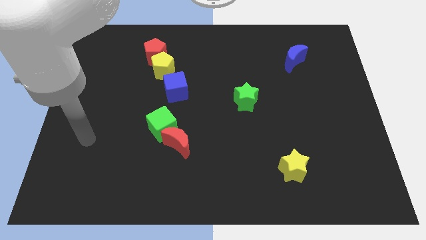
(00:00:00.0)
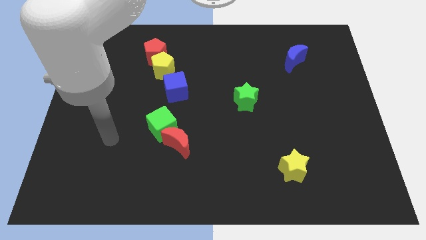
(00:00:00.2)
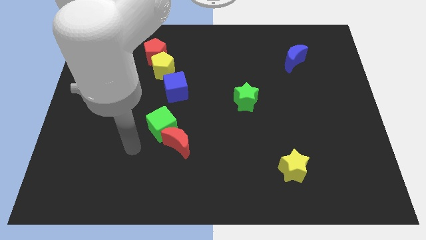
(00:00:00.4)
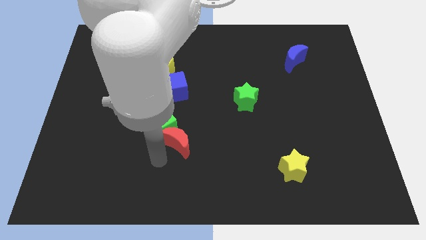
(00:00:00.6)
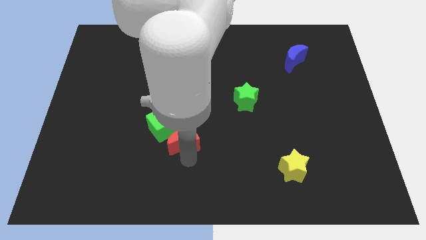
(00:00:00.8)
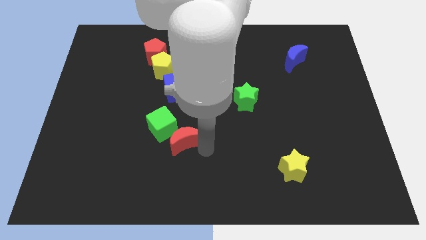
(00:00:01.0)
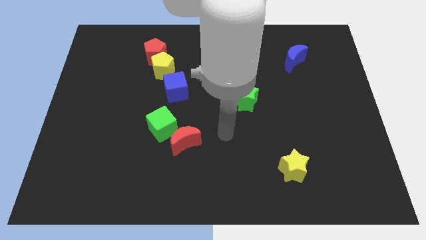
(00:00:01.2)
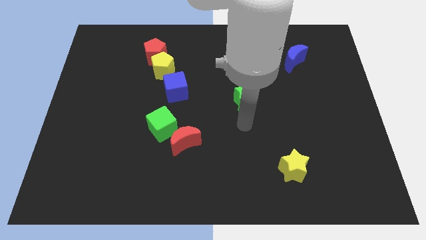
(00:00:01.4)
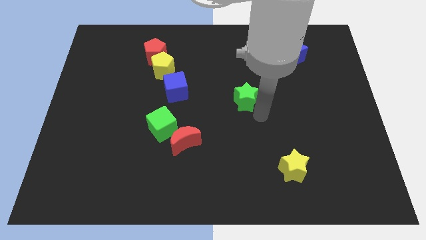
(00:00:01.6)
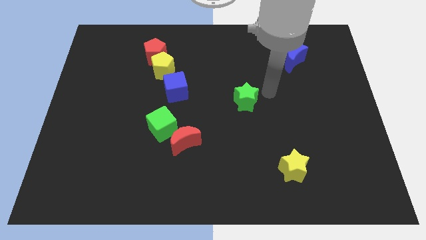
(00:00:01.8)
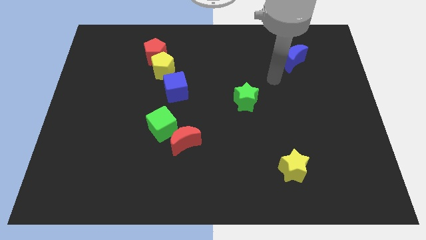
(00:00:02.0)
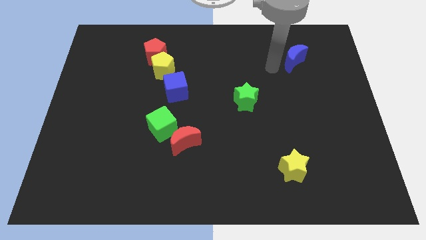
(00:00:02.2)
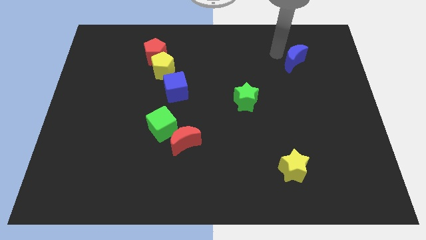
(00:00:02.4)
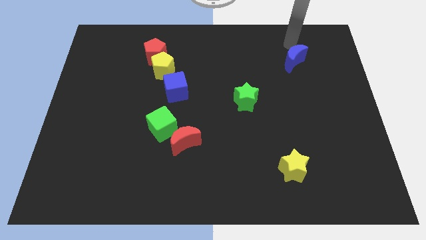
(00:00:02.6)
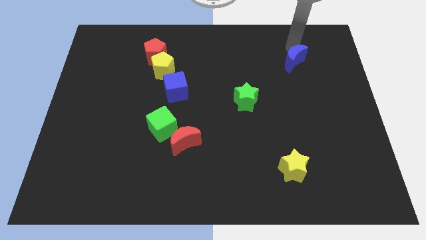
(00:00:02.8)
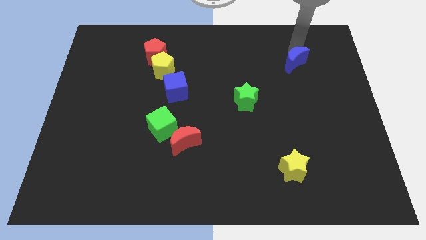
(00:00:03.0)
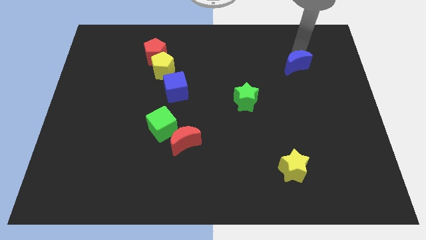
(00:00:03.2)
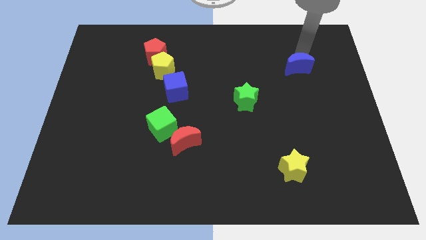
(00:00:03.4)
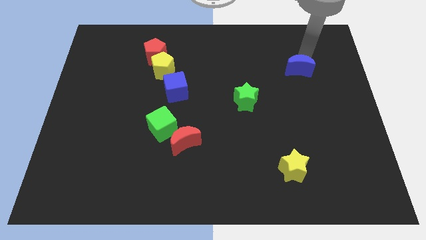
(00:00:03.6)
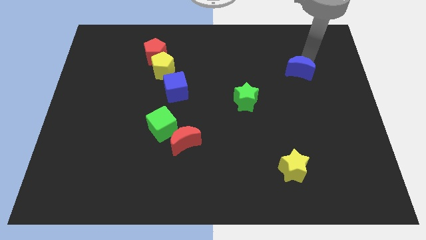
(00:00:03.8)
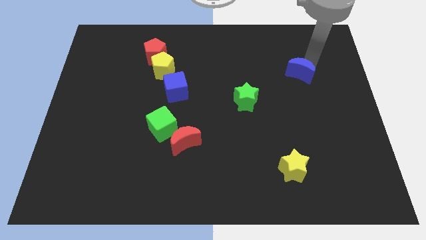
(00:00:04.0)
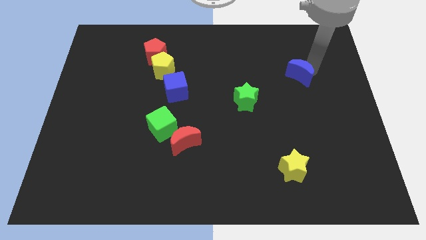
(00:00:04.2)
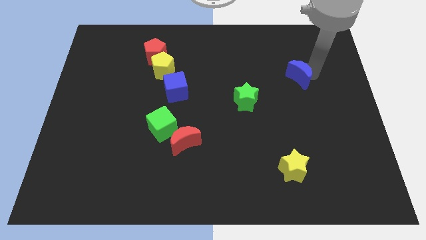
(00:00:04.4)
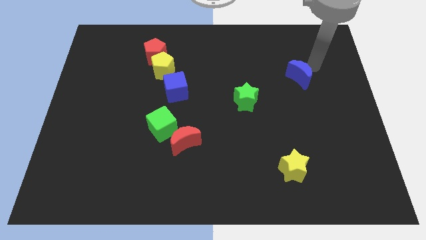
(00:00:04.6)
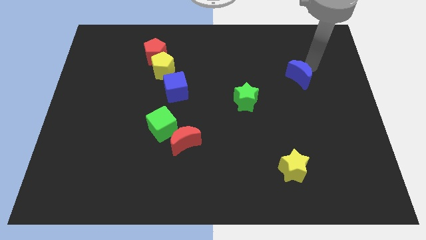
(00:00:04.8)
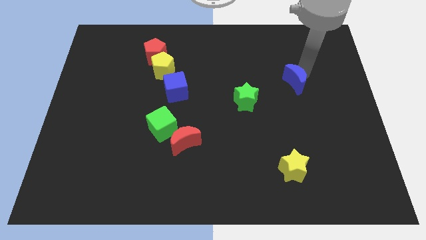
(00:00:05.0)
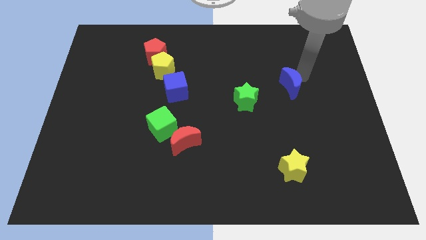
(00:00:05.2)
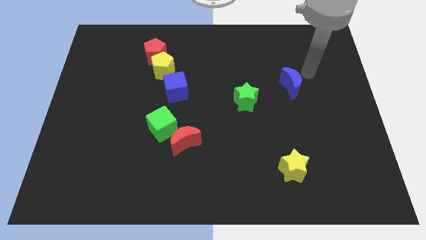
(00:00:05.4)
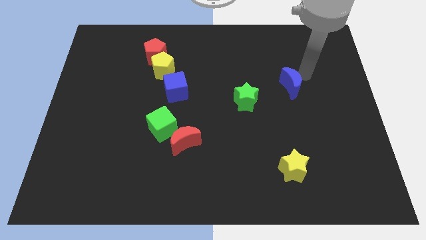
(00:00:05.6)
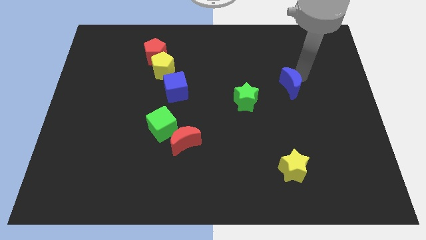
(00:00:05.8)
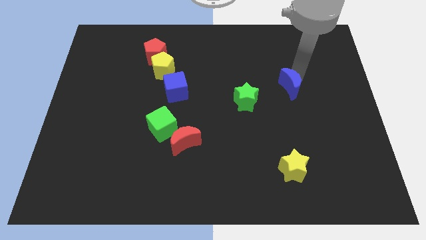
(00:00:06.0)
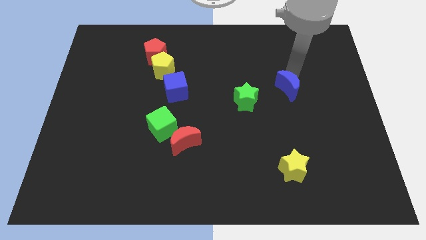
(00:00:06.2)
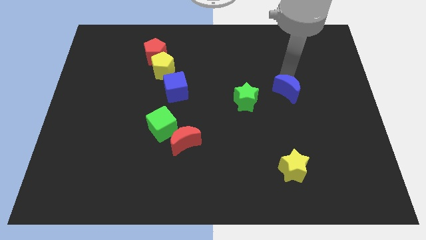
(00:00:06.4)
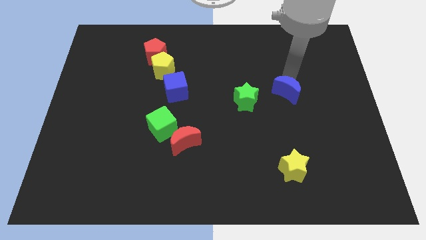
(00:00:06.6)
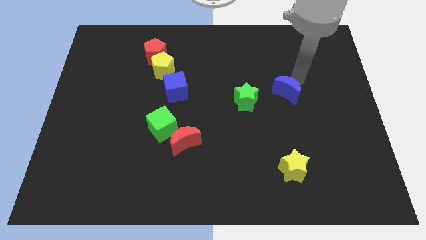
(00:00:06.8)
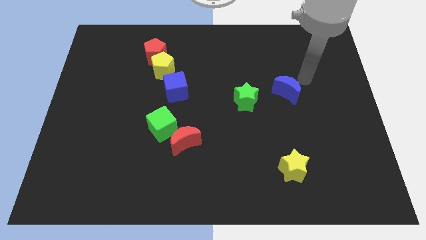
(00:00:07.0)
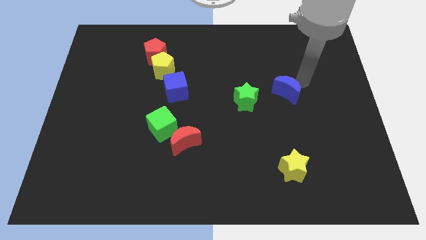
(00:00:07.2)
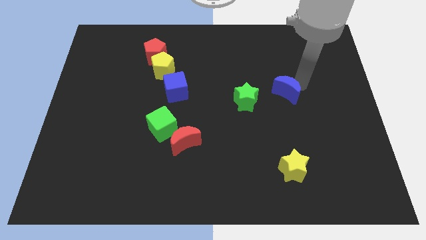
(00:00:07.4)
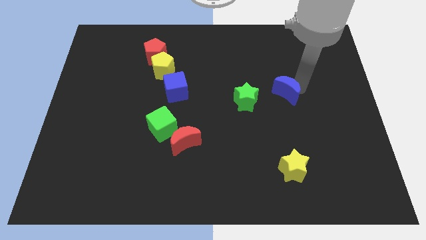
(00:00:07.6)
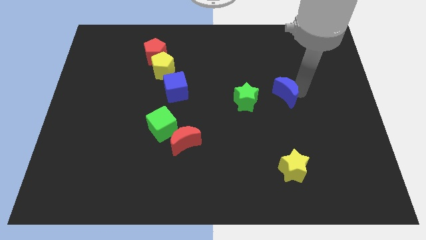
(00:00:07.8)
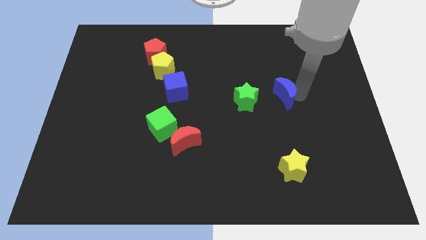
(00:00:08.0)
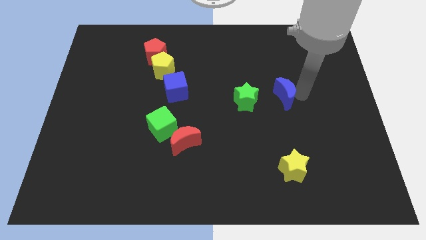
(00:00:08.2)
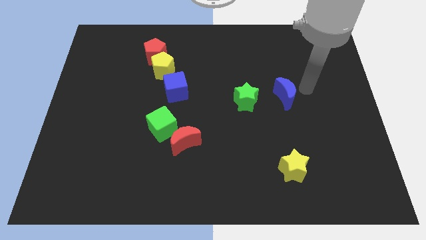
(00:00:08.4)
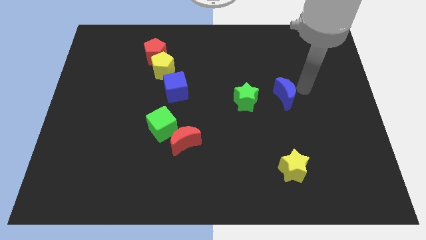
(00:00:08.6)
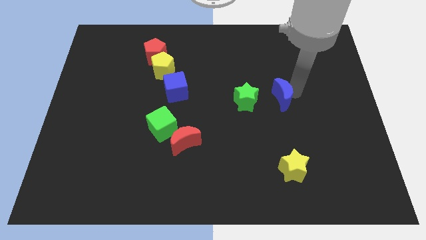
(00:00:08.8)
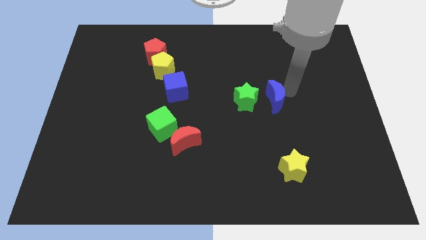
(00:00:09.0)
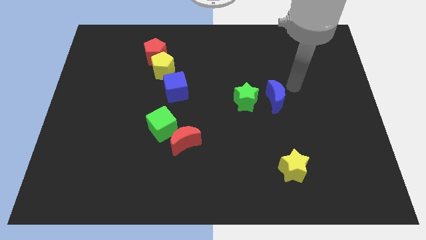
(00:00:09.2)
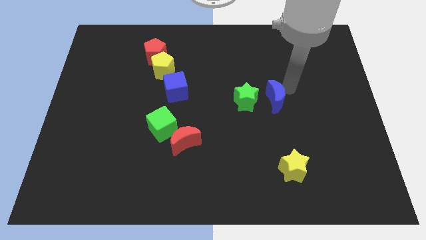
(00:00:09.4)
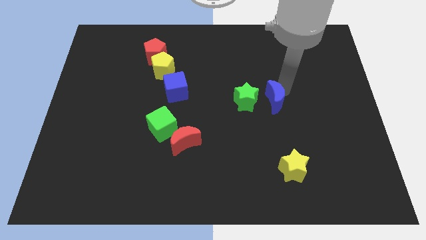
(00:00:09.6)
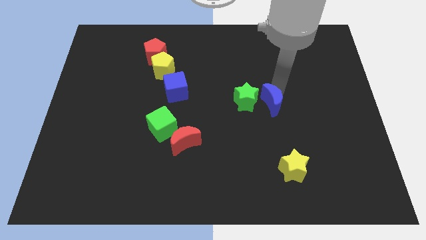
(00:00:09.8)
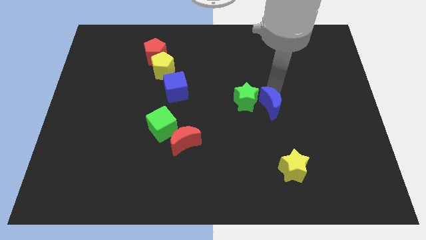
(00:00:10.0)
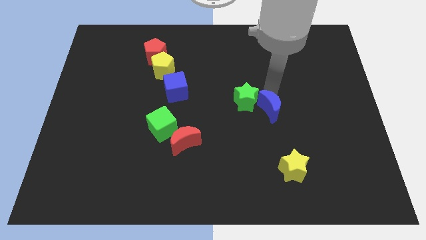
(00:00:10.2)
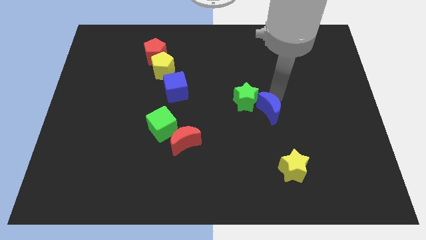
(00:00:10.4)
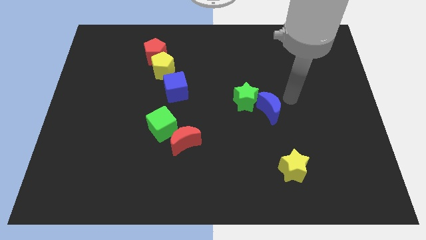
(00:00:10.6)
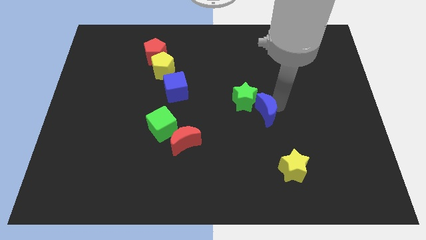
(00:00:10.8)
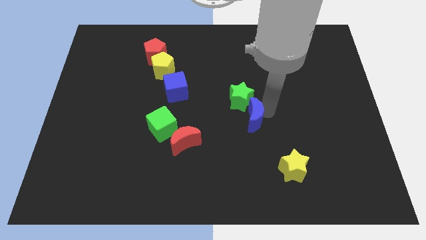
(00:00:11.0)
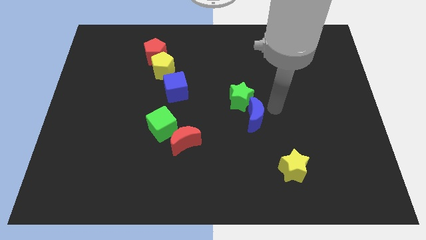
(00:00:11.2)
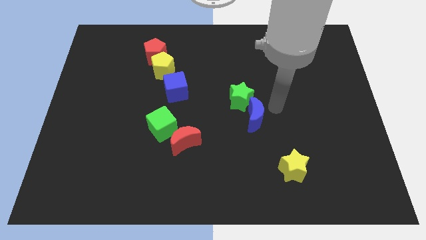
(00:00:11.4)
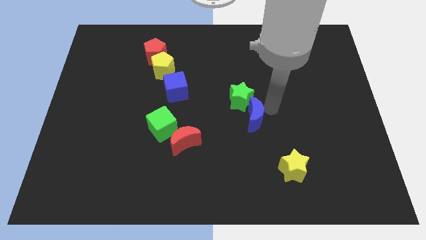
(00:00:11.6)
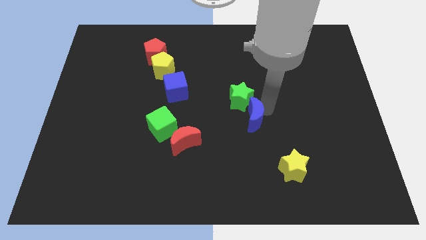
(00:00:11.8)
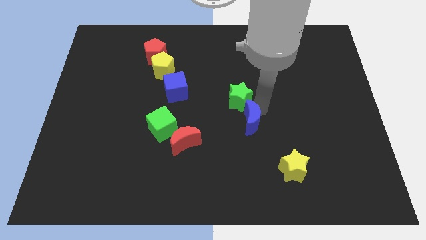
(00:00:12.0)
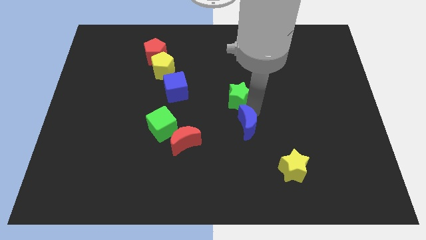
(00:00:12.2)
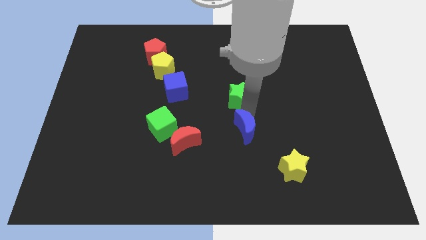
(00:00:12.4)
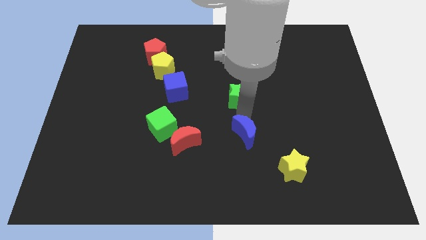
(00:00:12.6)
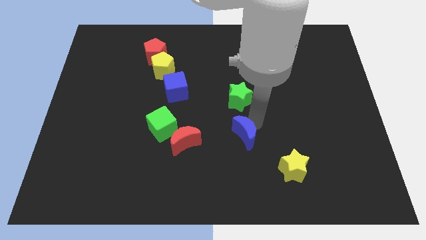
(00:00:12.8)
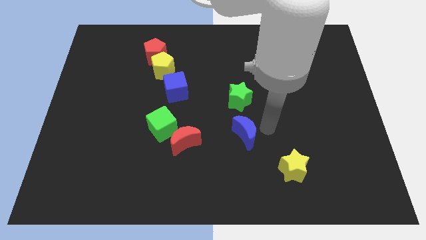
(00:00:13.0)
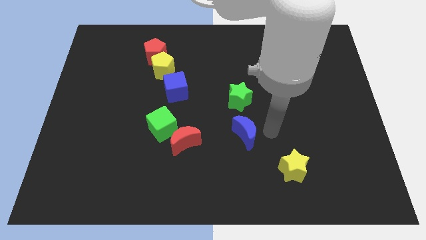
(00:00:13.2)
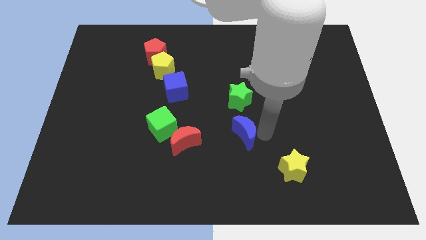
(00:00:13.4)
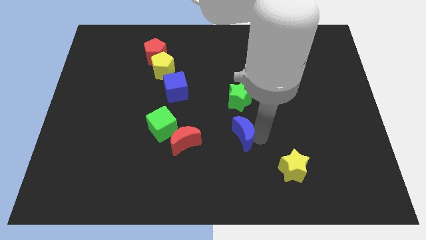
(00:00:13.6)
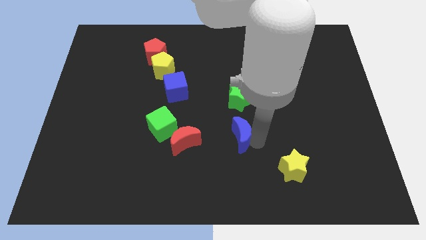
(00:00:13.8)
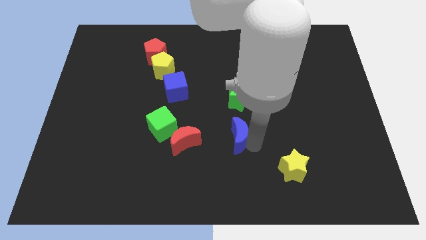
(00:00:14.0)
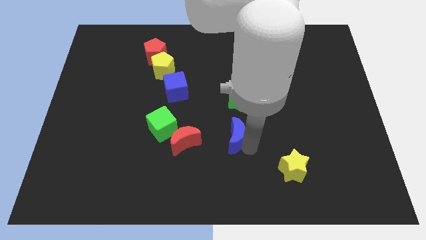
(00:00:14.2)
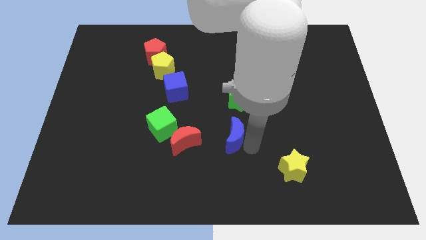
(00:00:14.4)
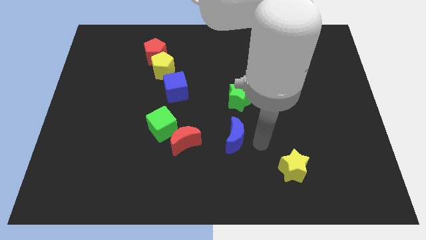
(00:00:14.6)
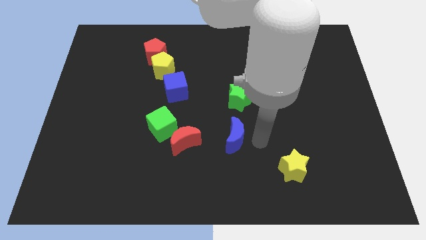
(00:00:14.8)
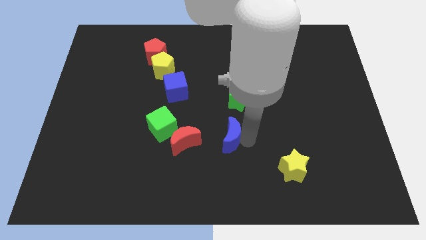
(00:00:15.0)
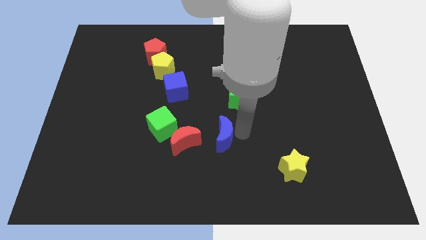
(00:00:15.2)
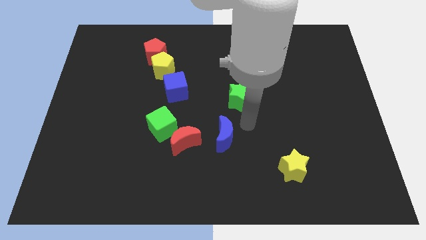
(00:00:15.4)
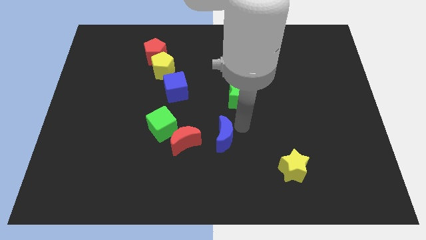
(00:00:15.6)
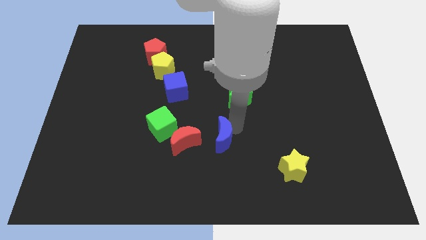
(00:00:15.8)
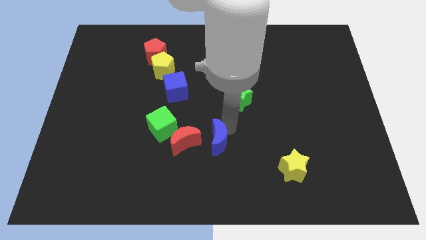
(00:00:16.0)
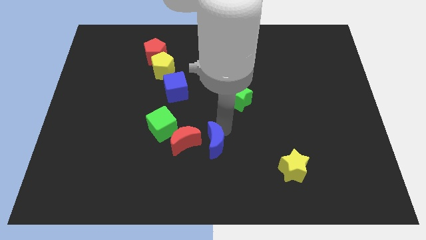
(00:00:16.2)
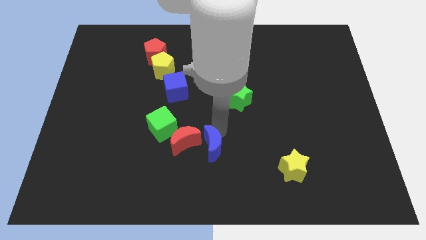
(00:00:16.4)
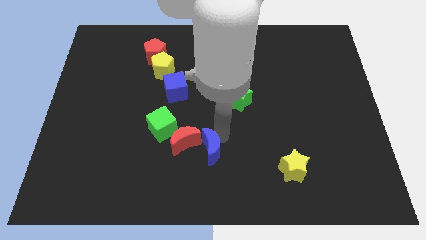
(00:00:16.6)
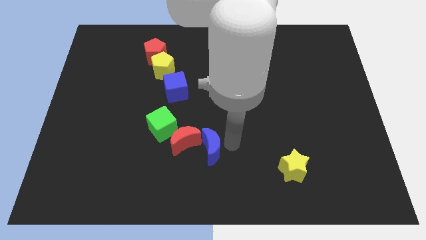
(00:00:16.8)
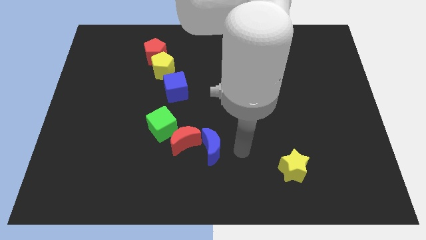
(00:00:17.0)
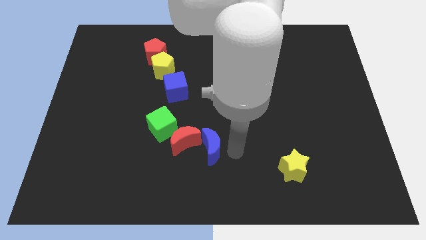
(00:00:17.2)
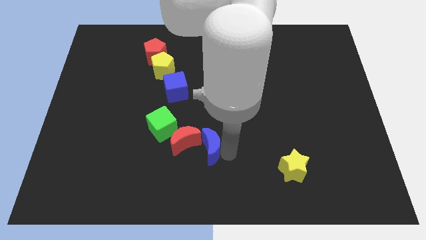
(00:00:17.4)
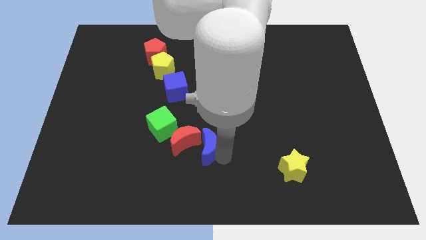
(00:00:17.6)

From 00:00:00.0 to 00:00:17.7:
put the blue moon diagonally down and to the right of the green cube
